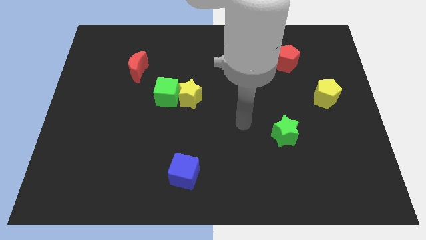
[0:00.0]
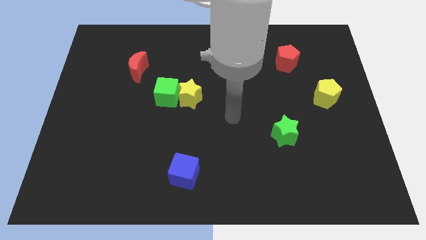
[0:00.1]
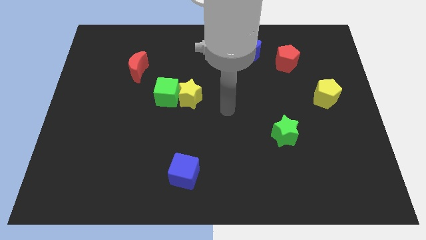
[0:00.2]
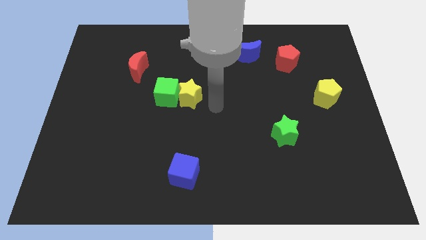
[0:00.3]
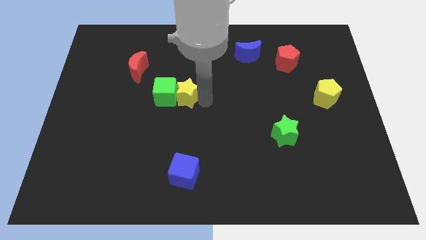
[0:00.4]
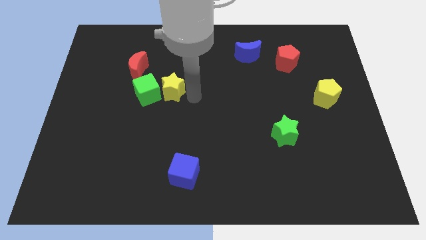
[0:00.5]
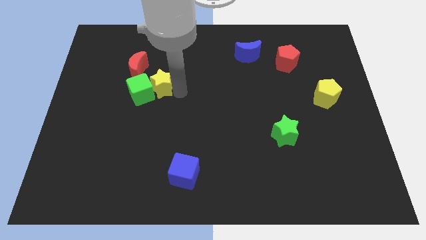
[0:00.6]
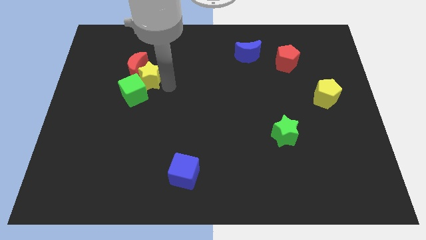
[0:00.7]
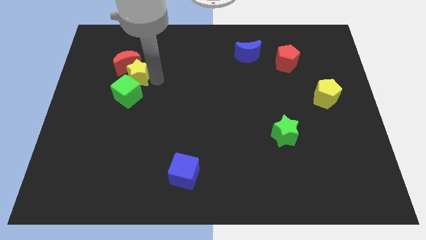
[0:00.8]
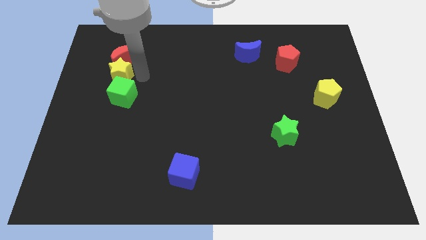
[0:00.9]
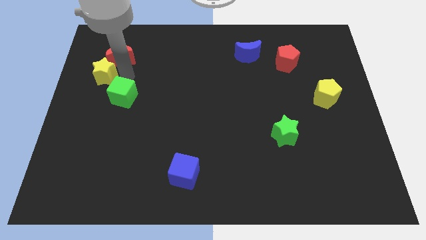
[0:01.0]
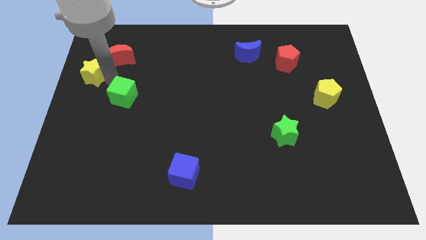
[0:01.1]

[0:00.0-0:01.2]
separate the green cube from the yellow star

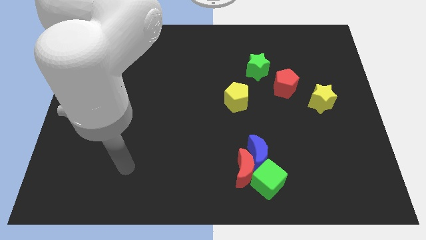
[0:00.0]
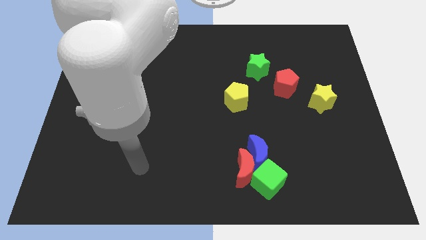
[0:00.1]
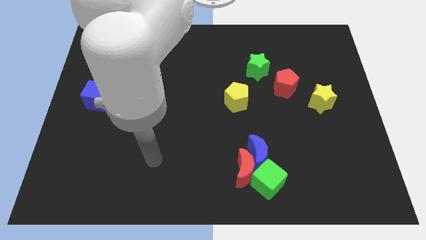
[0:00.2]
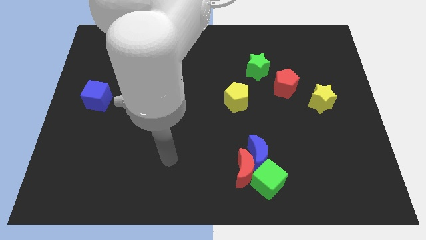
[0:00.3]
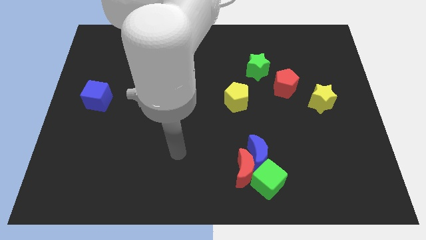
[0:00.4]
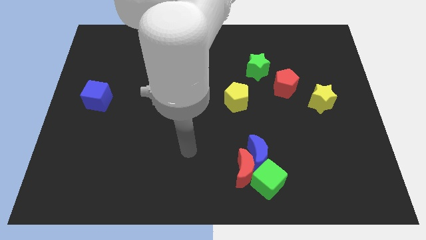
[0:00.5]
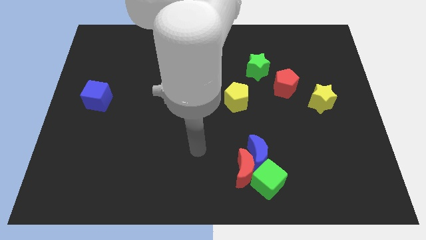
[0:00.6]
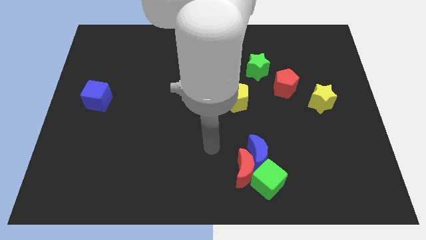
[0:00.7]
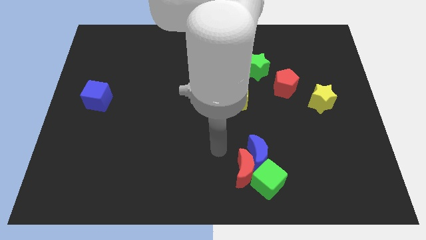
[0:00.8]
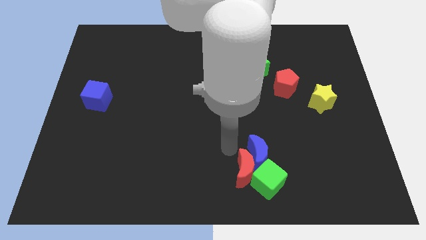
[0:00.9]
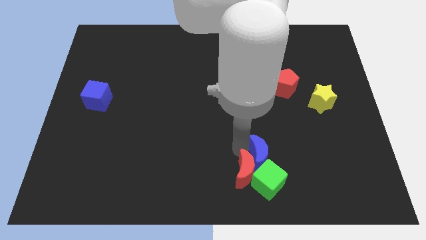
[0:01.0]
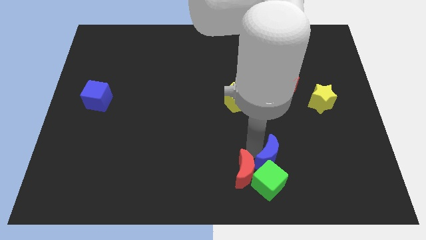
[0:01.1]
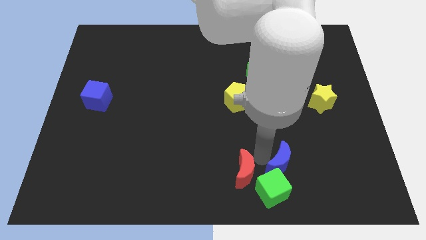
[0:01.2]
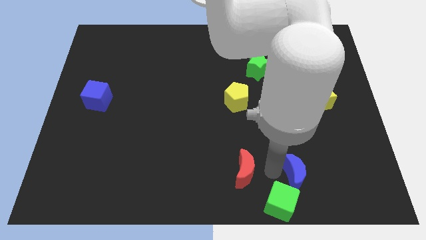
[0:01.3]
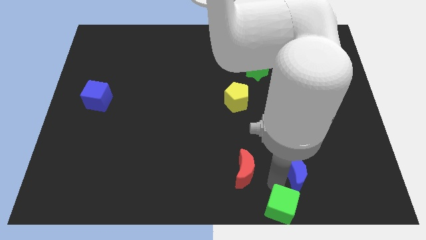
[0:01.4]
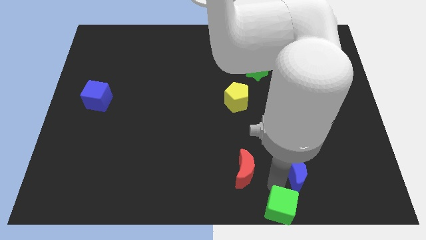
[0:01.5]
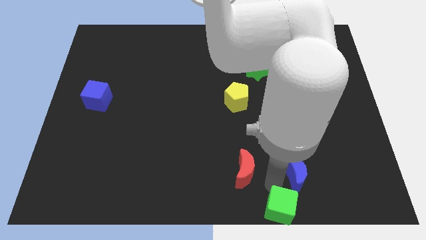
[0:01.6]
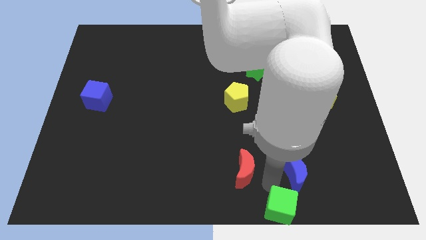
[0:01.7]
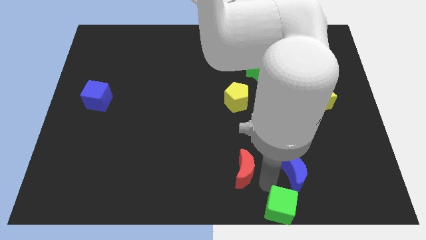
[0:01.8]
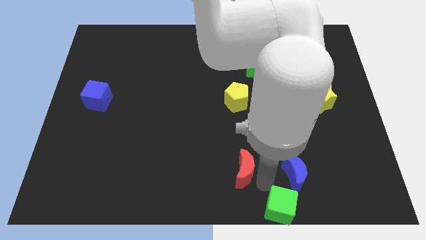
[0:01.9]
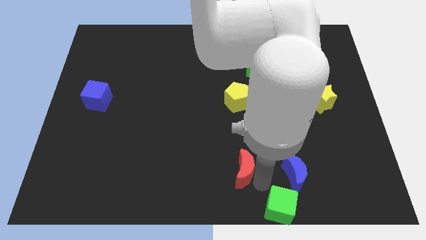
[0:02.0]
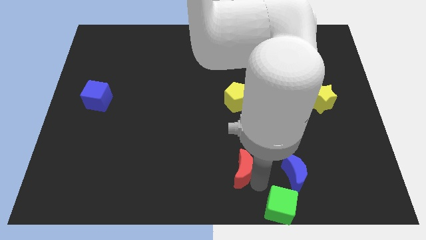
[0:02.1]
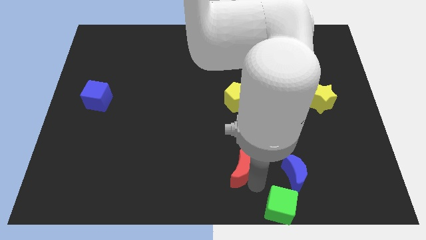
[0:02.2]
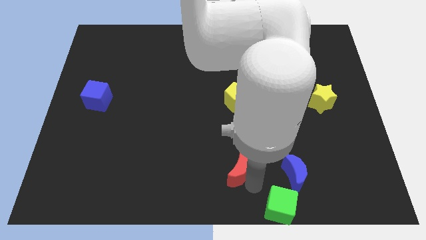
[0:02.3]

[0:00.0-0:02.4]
separate the red moon from the blue moon and green cube

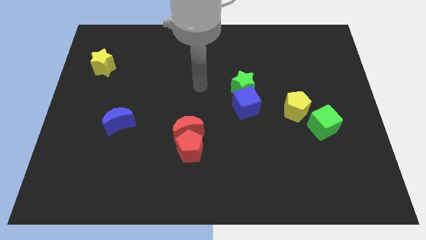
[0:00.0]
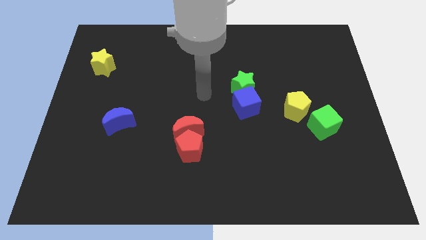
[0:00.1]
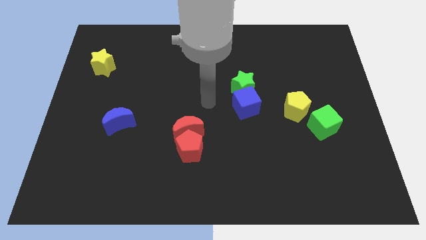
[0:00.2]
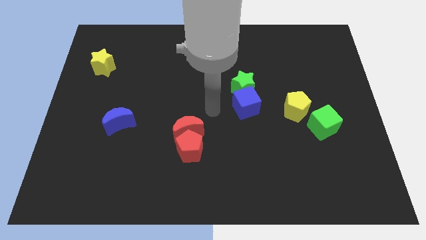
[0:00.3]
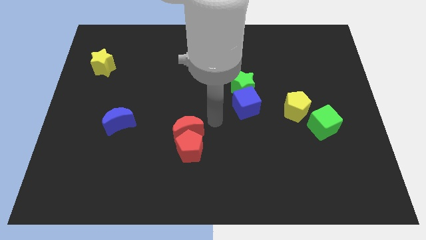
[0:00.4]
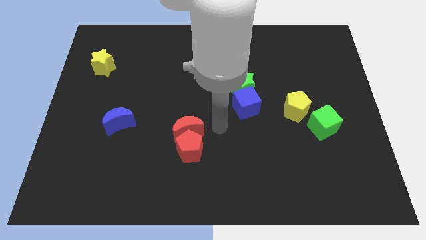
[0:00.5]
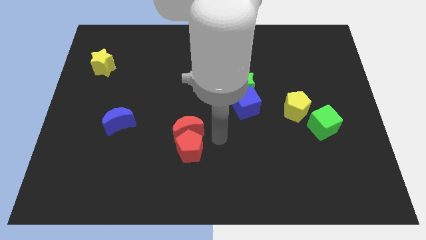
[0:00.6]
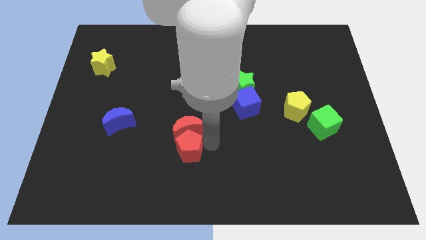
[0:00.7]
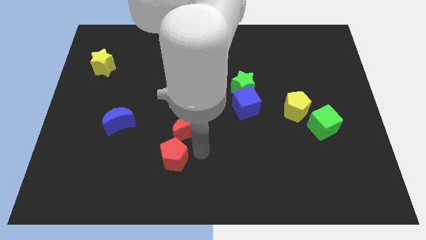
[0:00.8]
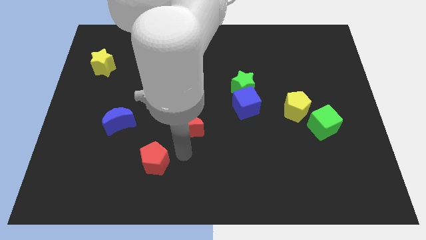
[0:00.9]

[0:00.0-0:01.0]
move the red moon away from the red pentagon

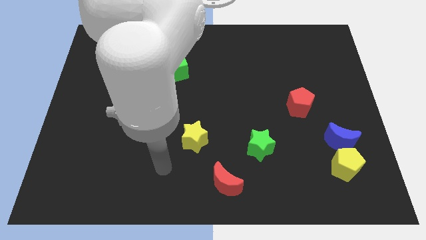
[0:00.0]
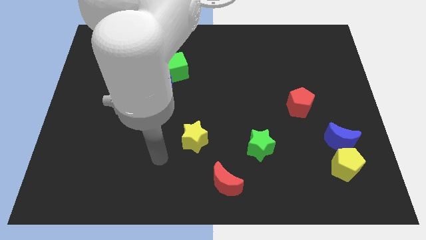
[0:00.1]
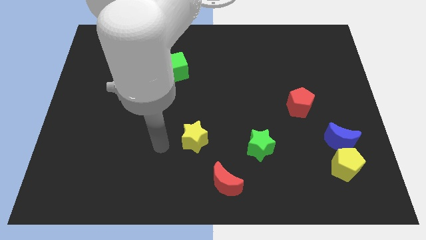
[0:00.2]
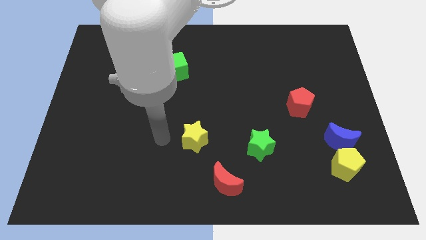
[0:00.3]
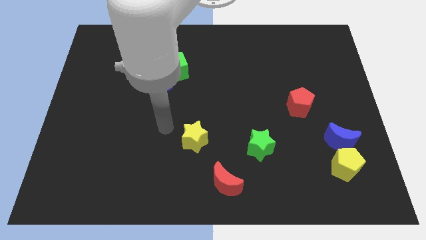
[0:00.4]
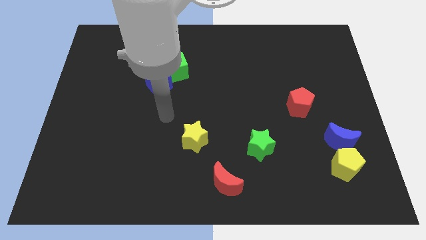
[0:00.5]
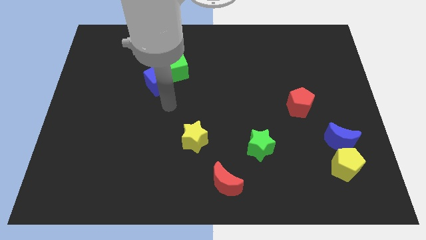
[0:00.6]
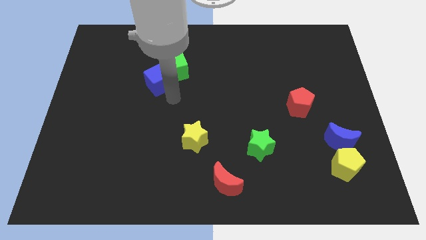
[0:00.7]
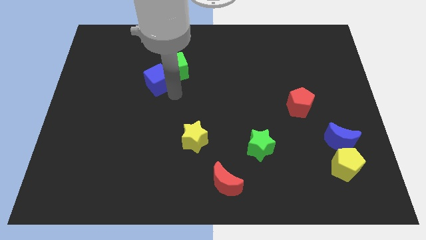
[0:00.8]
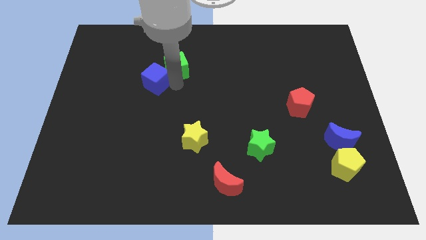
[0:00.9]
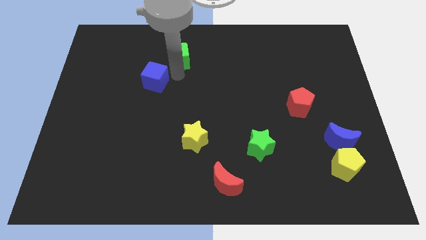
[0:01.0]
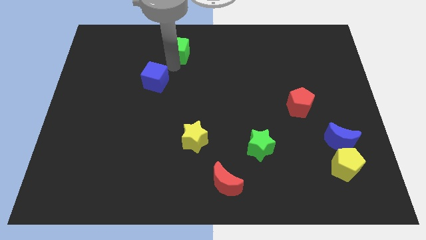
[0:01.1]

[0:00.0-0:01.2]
move the blue cube away from the green cube

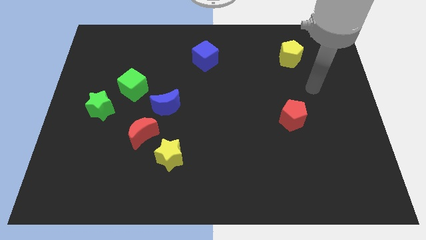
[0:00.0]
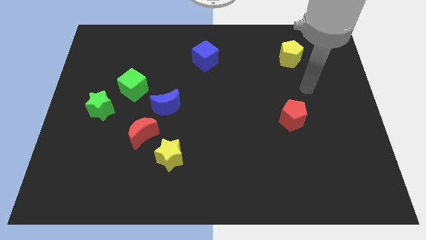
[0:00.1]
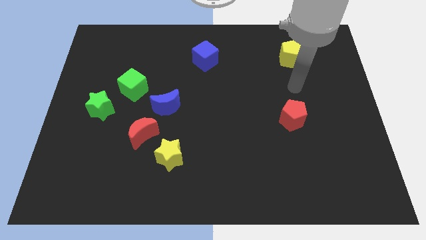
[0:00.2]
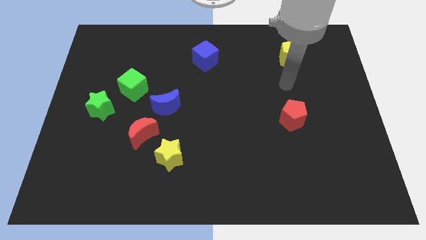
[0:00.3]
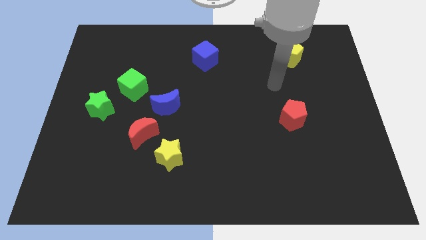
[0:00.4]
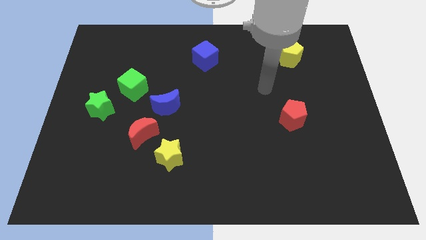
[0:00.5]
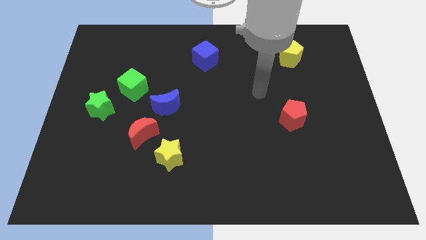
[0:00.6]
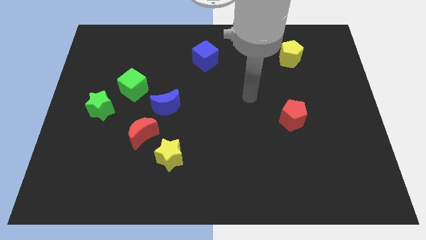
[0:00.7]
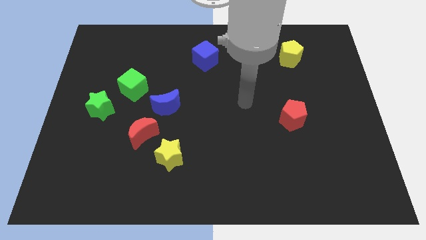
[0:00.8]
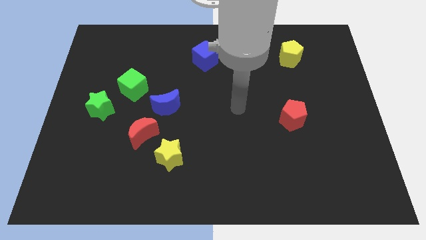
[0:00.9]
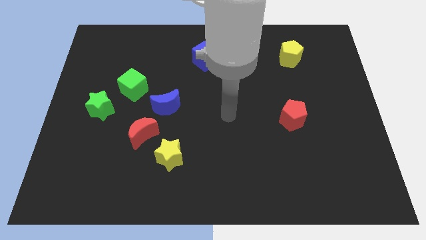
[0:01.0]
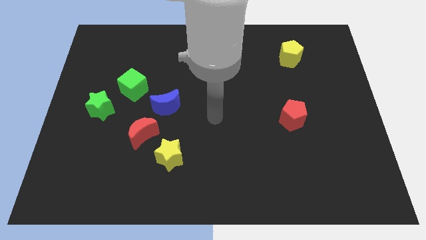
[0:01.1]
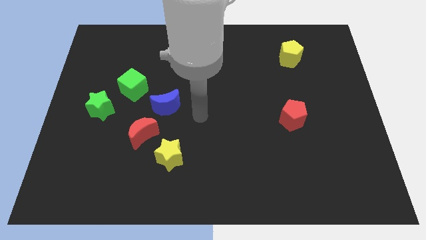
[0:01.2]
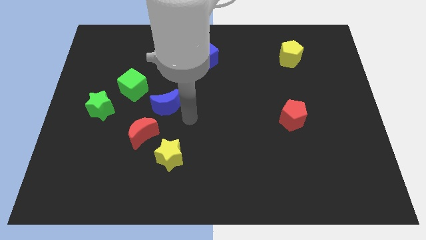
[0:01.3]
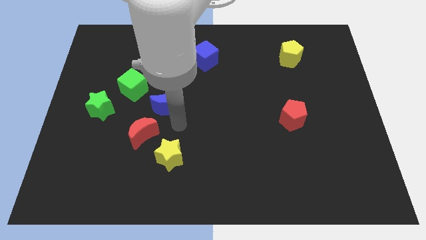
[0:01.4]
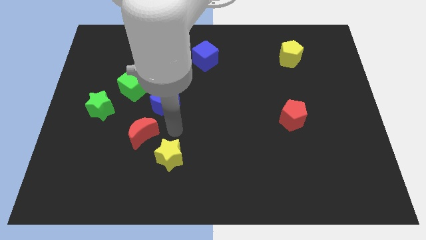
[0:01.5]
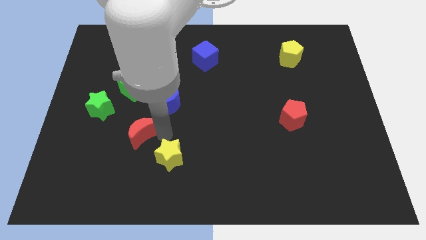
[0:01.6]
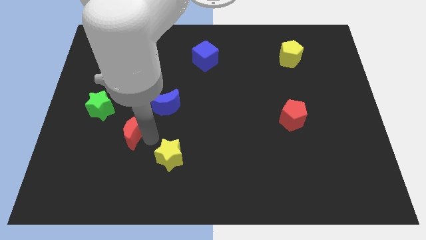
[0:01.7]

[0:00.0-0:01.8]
separate the yellow star from the red moon

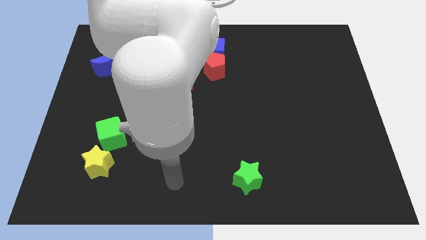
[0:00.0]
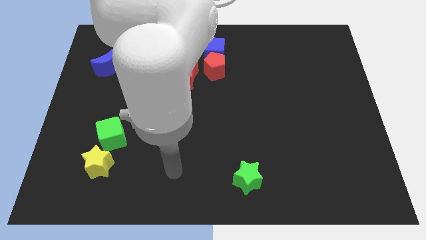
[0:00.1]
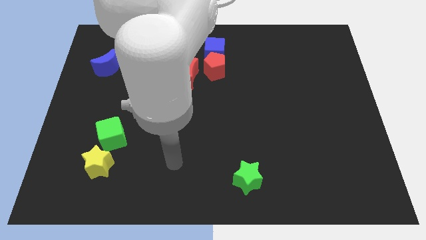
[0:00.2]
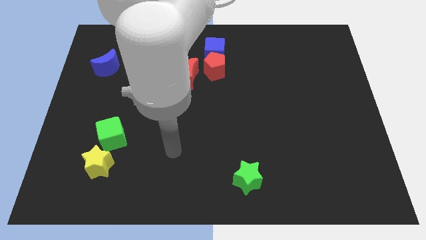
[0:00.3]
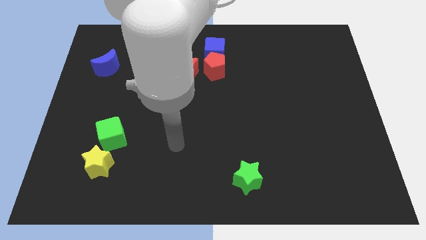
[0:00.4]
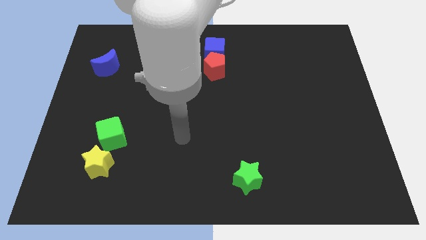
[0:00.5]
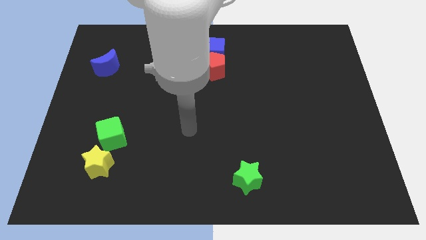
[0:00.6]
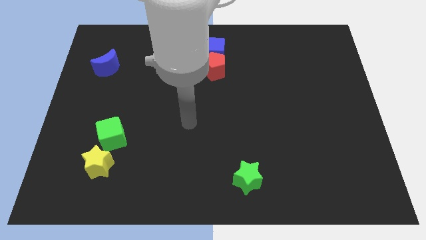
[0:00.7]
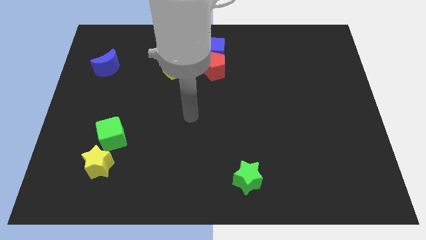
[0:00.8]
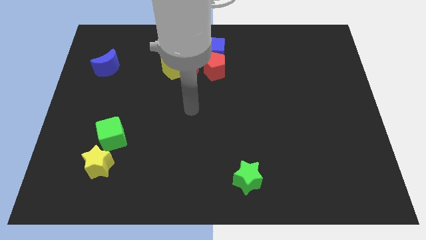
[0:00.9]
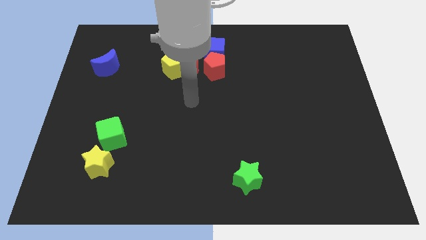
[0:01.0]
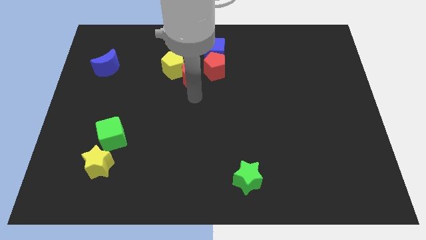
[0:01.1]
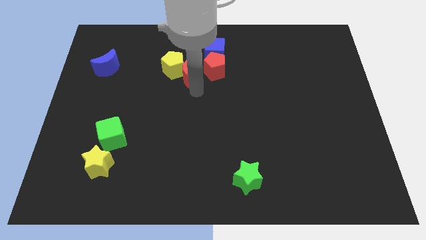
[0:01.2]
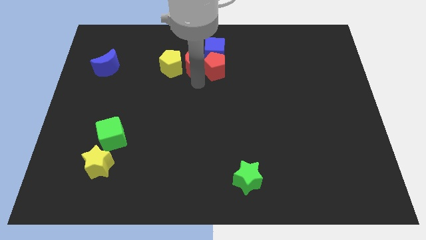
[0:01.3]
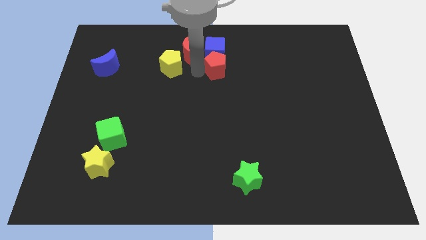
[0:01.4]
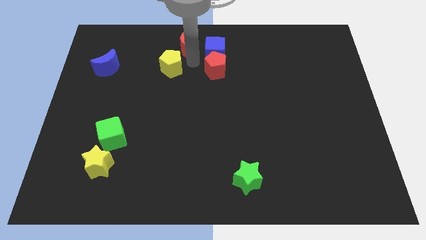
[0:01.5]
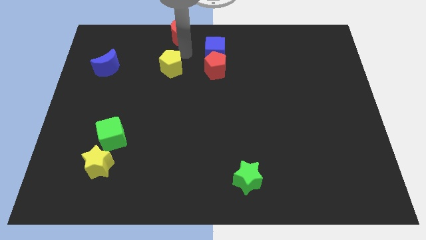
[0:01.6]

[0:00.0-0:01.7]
pull the yellow pentagon apart from the red moon
